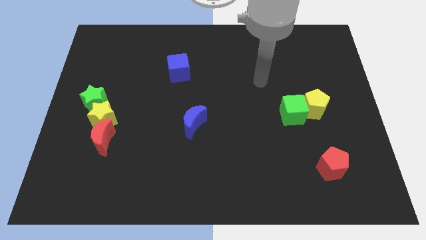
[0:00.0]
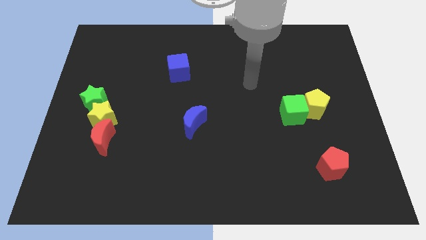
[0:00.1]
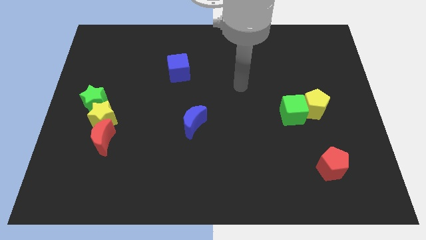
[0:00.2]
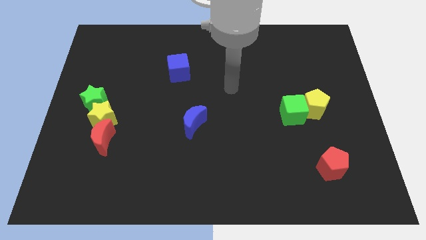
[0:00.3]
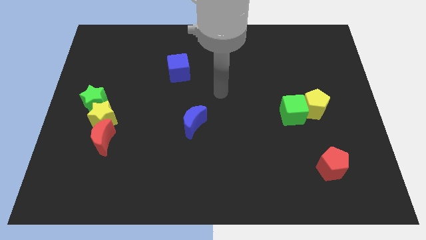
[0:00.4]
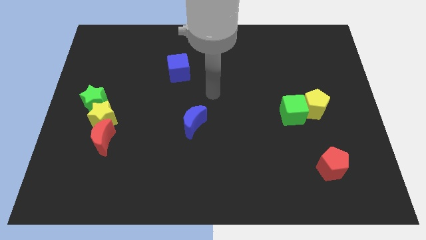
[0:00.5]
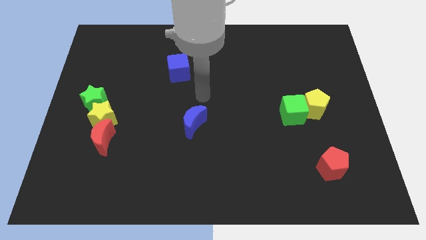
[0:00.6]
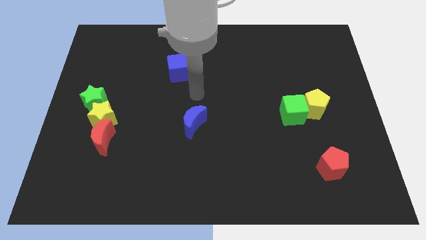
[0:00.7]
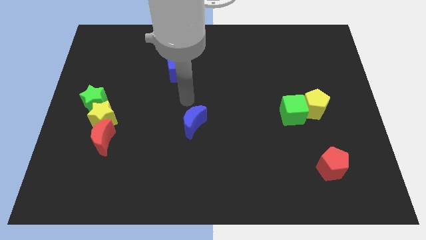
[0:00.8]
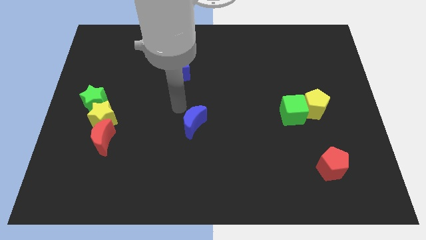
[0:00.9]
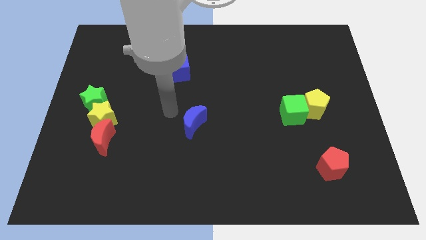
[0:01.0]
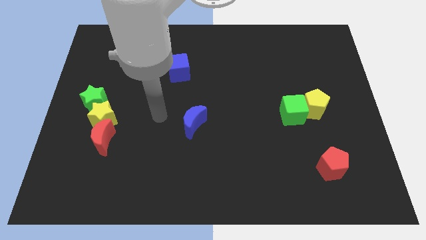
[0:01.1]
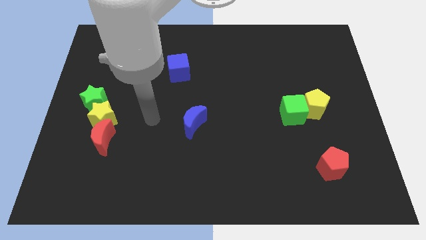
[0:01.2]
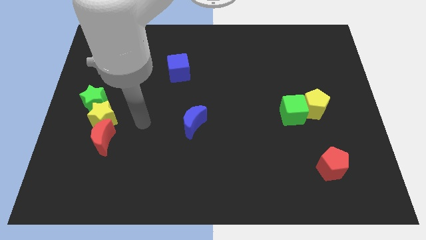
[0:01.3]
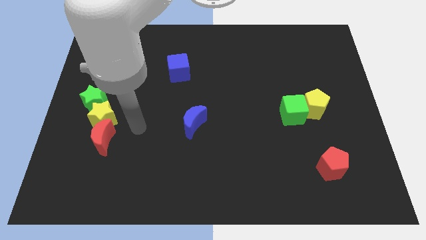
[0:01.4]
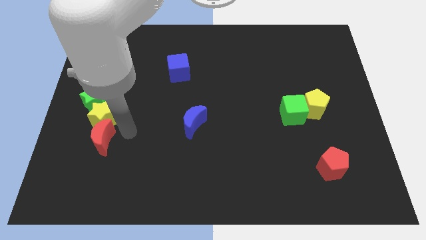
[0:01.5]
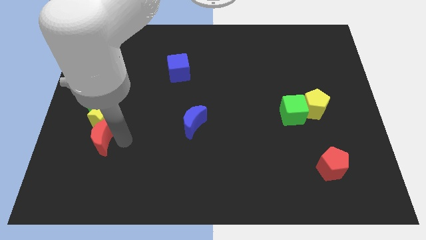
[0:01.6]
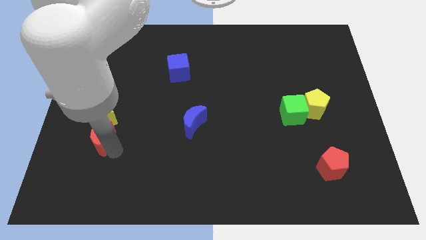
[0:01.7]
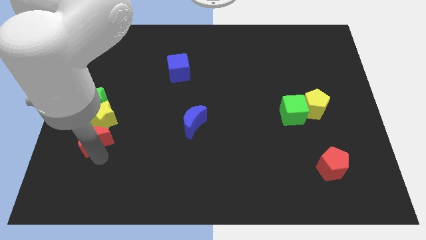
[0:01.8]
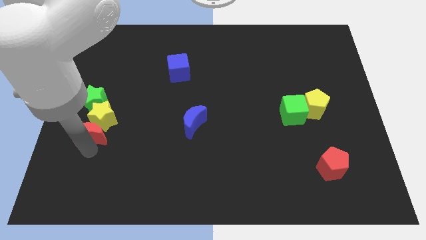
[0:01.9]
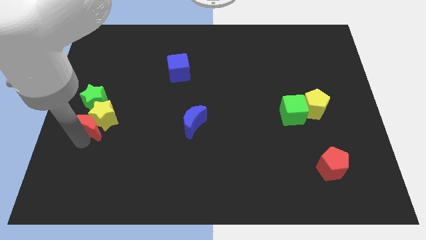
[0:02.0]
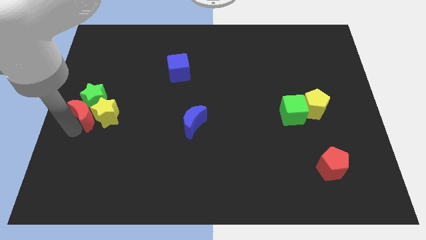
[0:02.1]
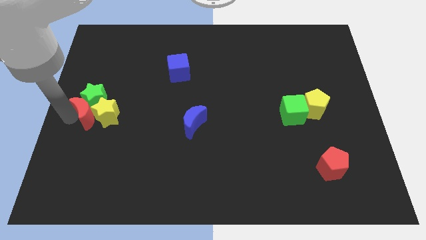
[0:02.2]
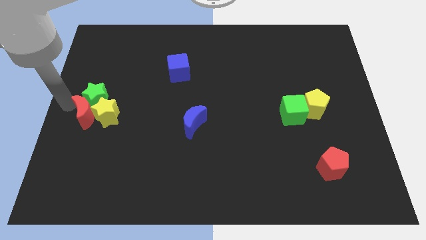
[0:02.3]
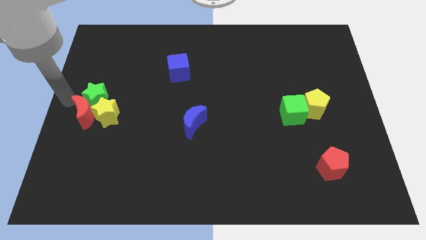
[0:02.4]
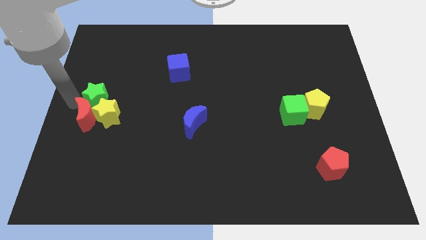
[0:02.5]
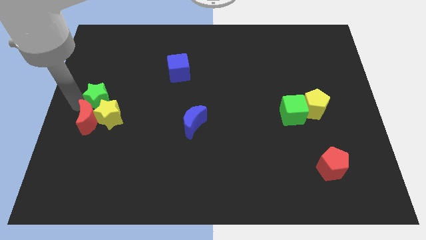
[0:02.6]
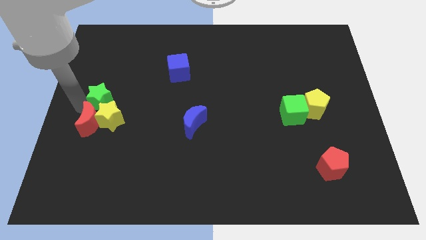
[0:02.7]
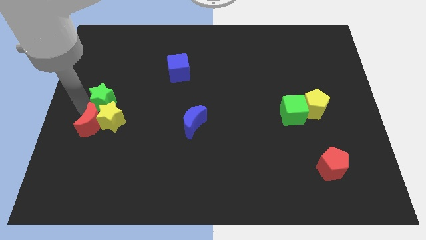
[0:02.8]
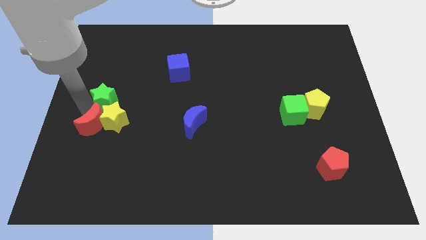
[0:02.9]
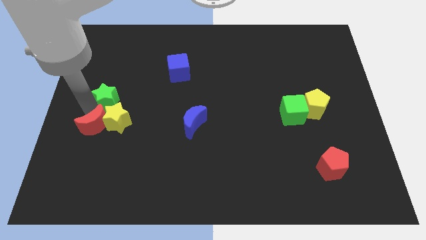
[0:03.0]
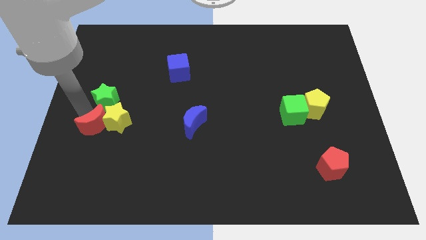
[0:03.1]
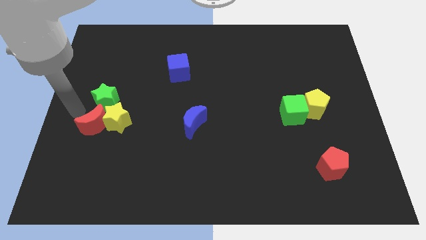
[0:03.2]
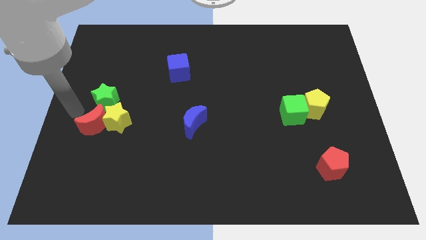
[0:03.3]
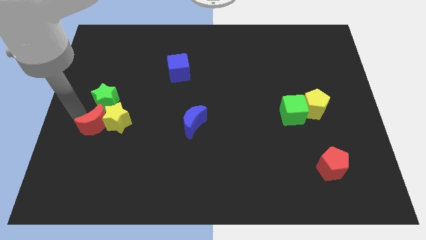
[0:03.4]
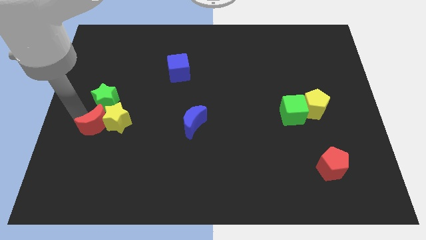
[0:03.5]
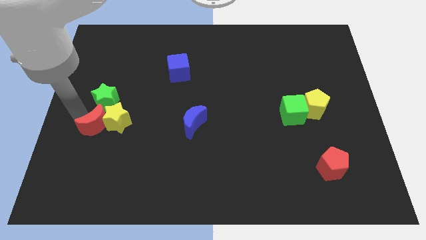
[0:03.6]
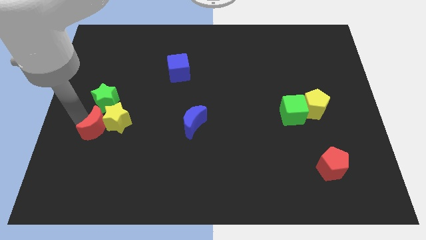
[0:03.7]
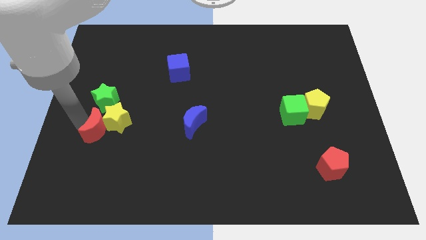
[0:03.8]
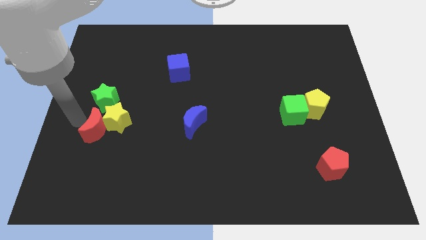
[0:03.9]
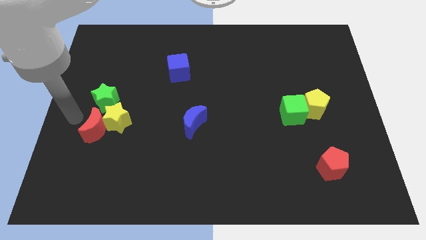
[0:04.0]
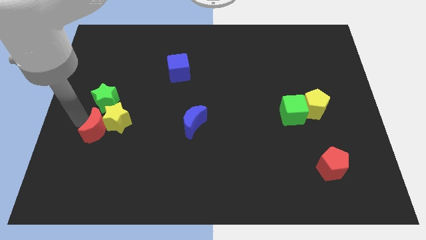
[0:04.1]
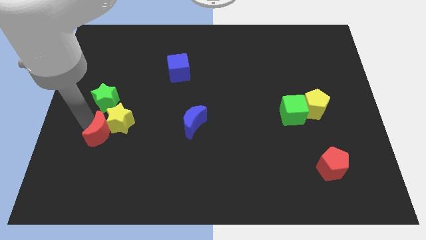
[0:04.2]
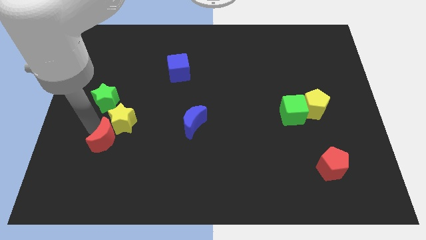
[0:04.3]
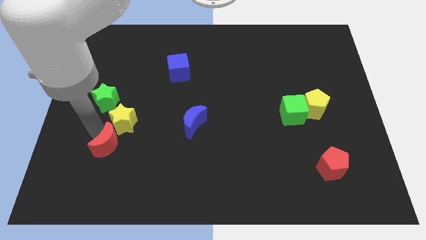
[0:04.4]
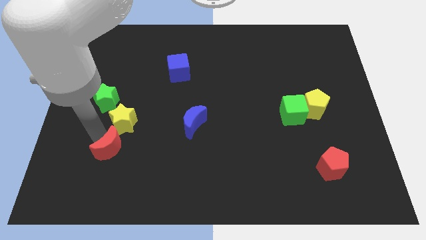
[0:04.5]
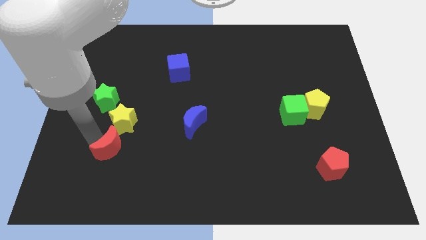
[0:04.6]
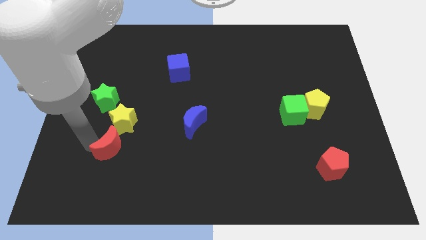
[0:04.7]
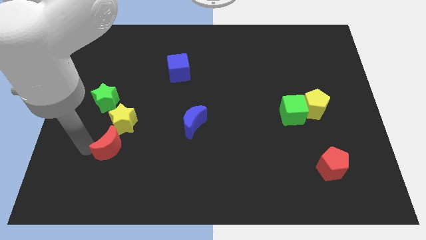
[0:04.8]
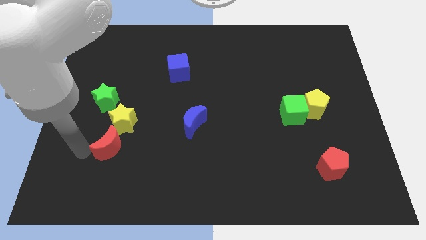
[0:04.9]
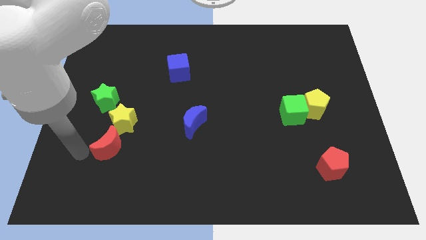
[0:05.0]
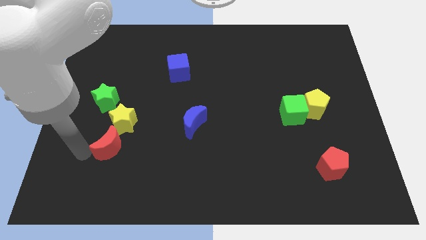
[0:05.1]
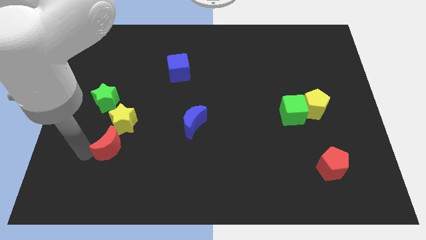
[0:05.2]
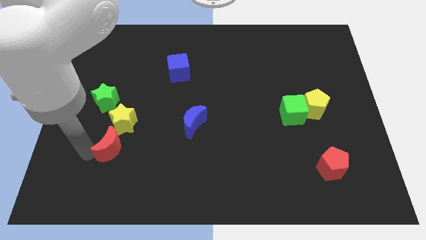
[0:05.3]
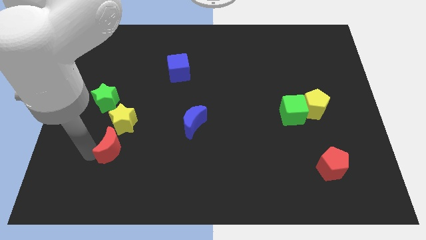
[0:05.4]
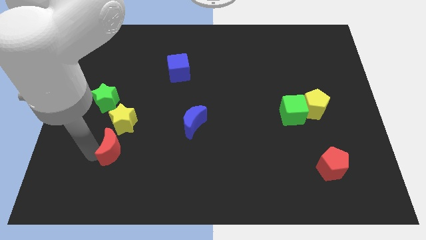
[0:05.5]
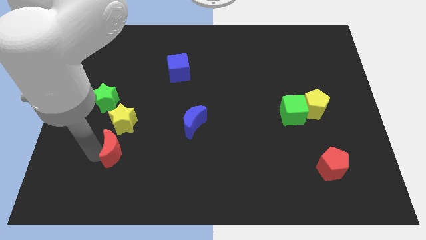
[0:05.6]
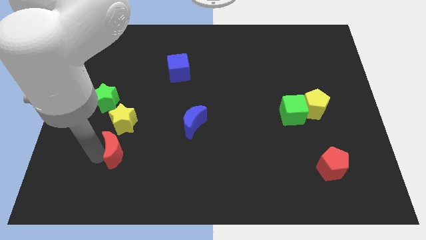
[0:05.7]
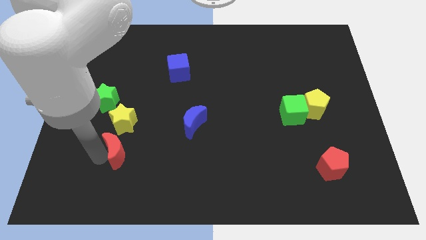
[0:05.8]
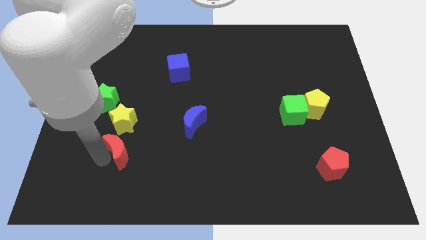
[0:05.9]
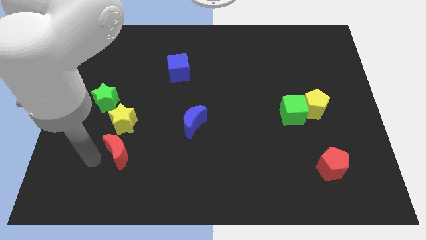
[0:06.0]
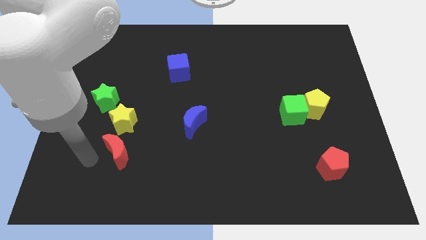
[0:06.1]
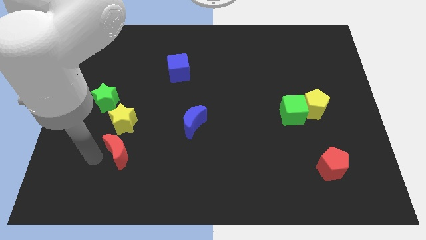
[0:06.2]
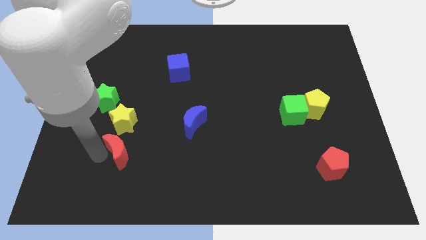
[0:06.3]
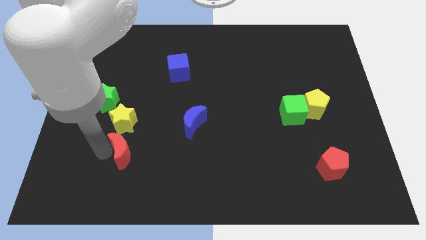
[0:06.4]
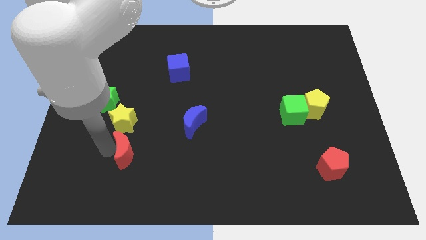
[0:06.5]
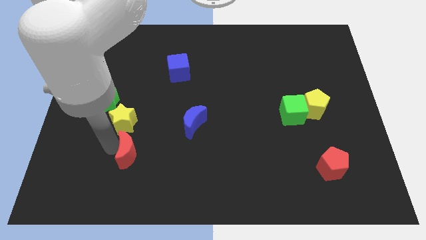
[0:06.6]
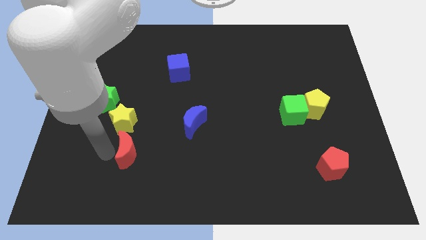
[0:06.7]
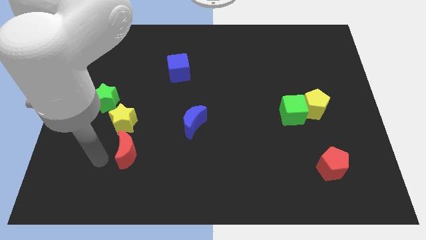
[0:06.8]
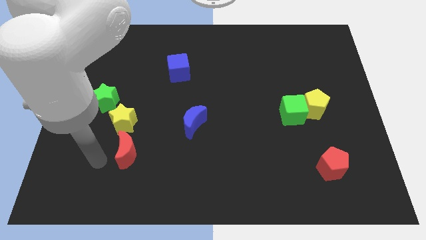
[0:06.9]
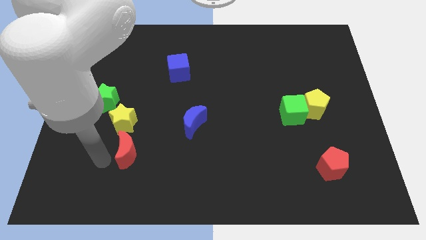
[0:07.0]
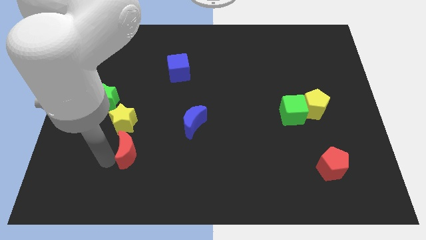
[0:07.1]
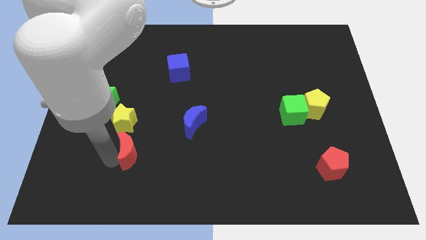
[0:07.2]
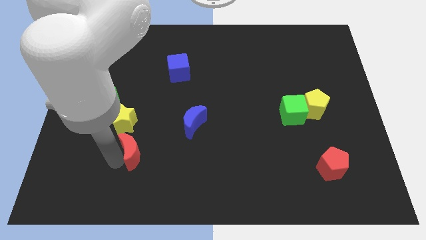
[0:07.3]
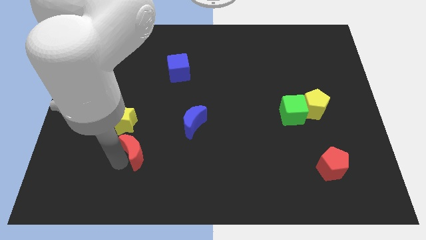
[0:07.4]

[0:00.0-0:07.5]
slightly slide the red moon right

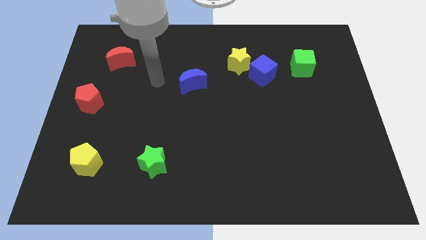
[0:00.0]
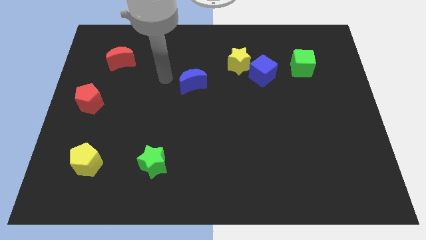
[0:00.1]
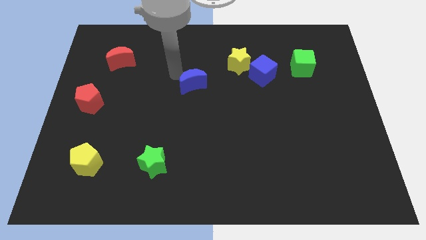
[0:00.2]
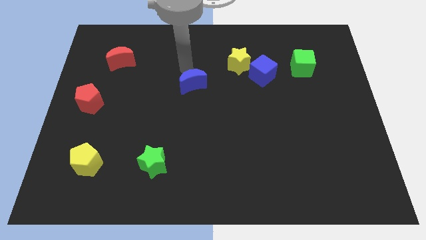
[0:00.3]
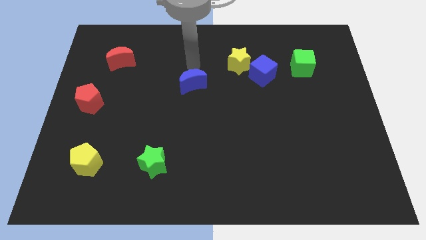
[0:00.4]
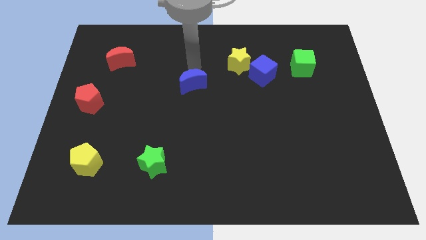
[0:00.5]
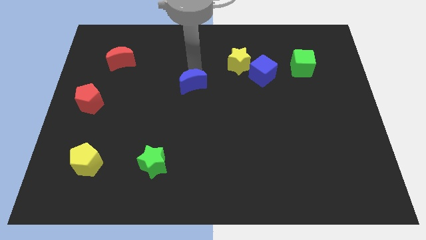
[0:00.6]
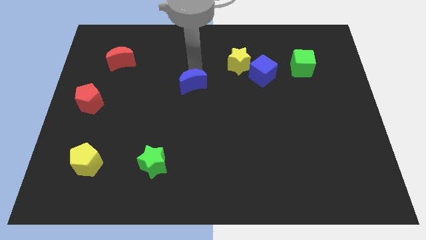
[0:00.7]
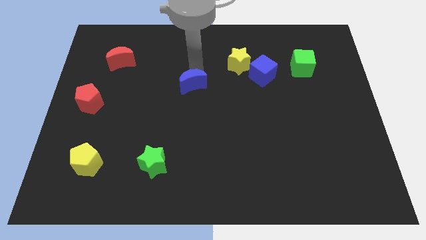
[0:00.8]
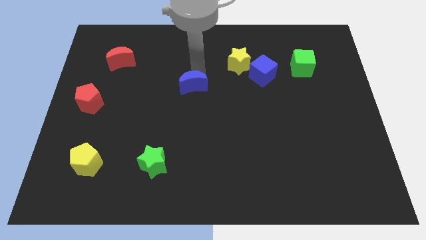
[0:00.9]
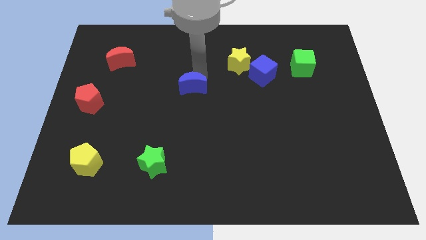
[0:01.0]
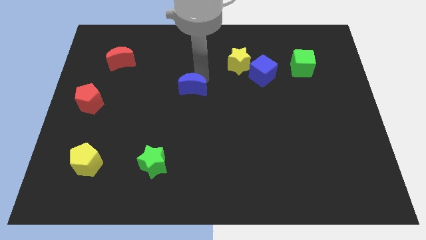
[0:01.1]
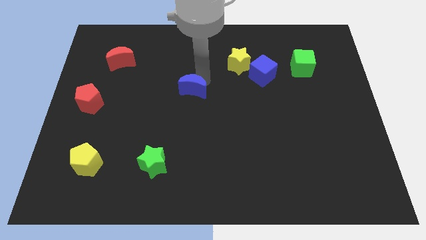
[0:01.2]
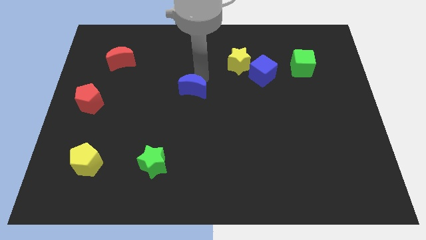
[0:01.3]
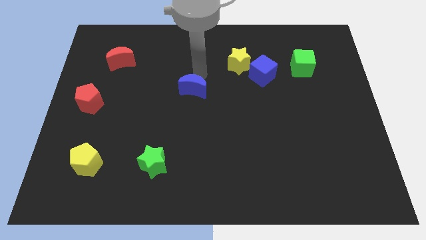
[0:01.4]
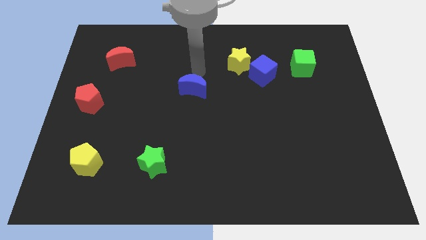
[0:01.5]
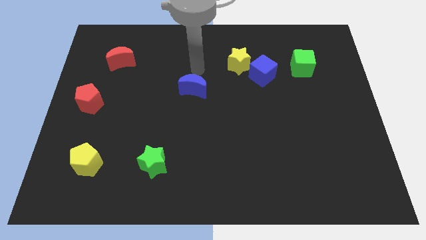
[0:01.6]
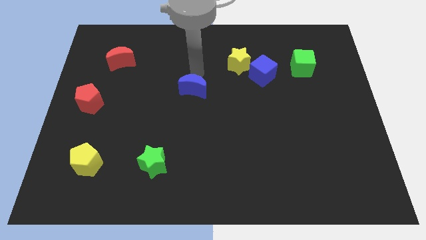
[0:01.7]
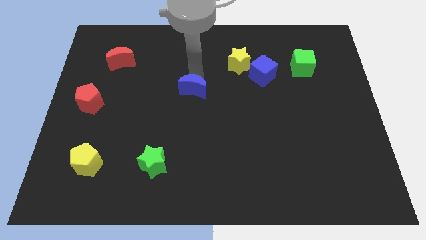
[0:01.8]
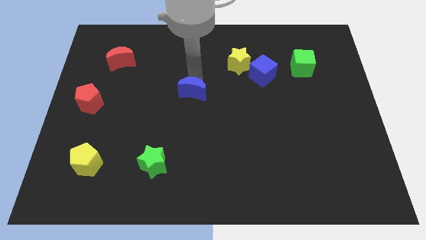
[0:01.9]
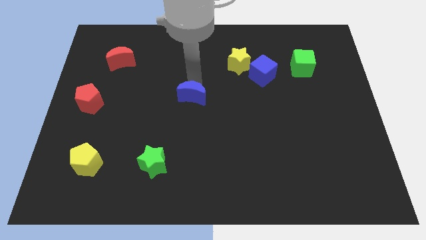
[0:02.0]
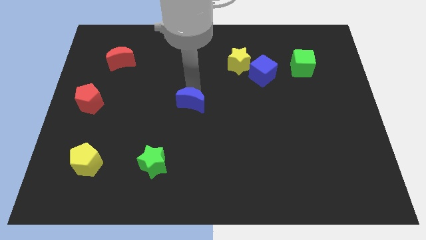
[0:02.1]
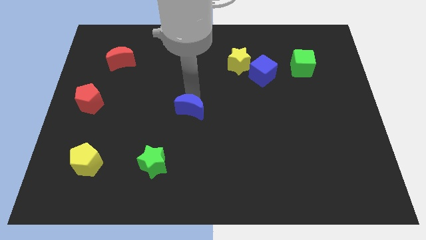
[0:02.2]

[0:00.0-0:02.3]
slide the blue moon a bit downwards
